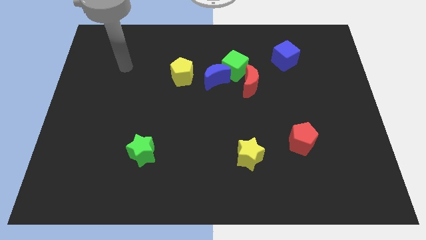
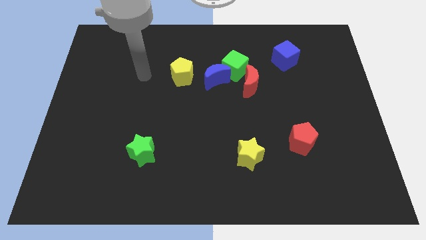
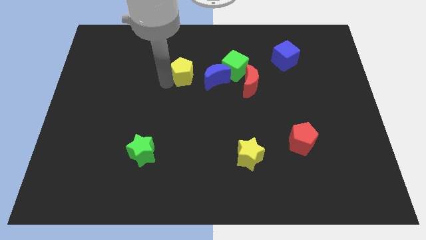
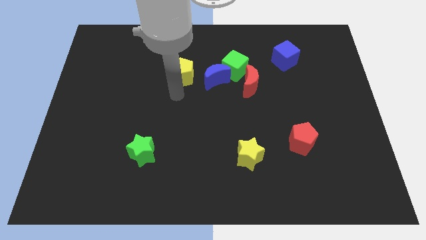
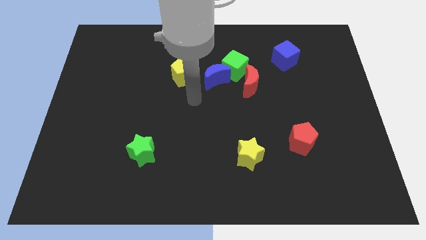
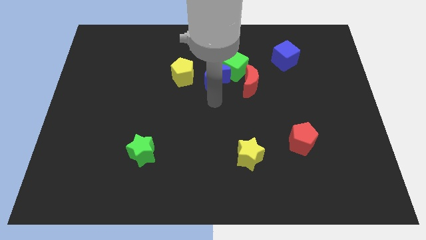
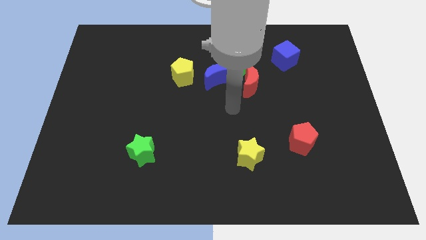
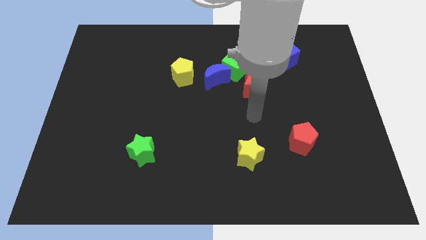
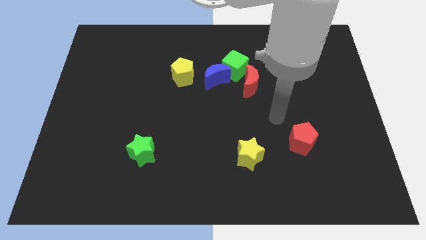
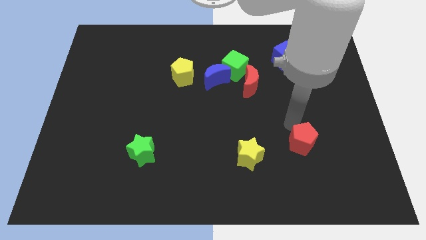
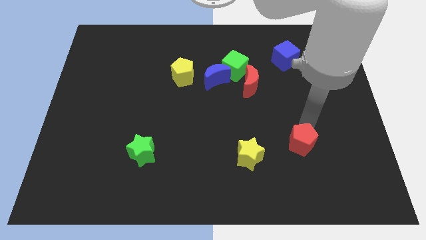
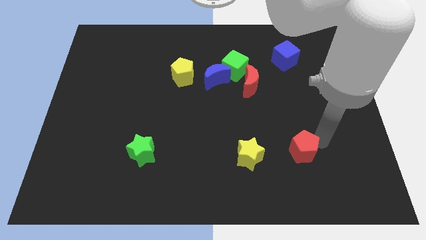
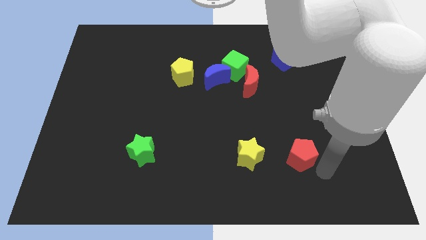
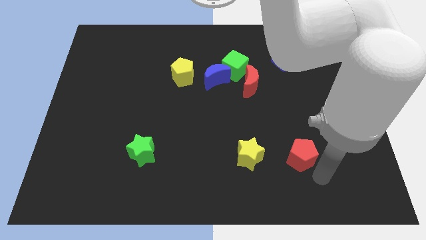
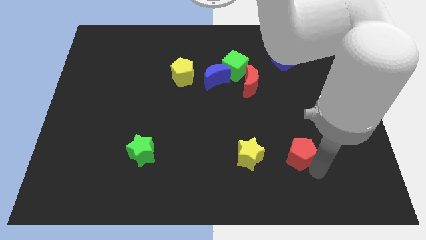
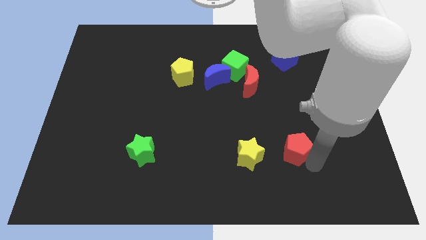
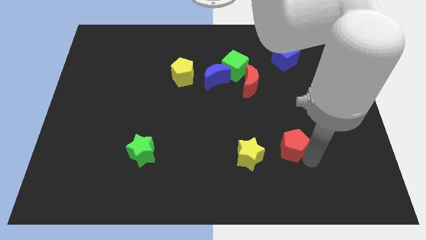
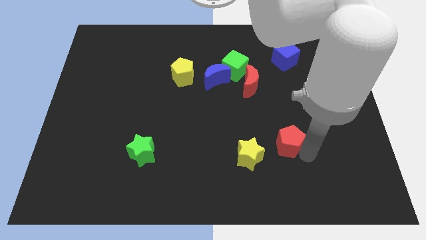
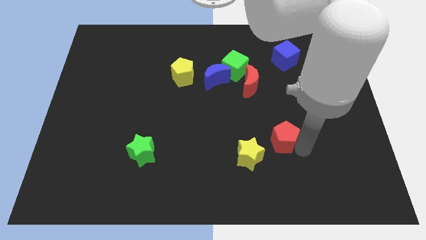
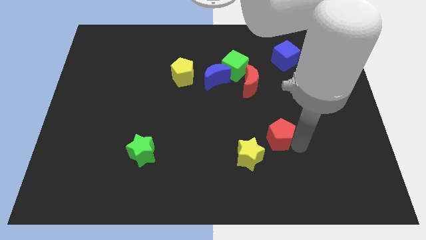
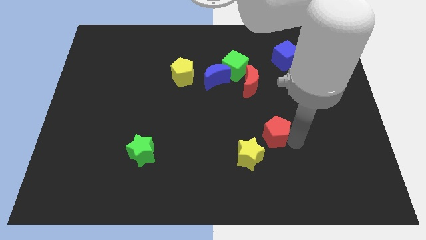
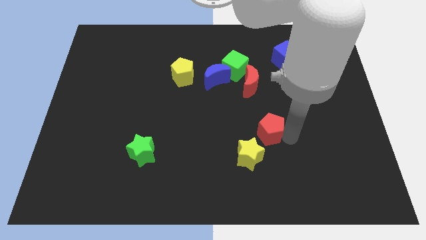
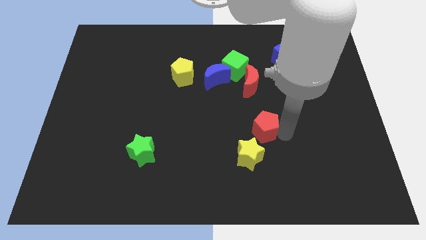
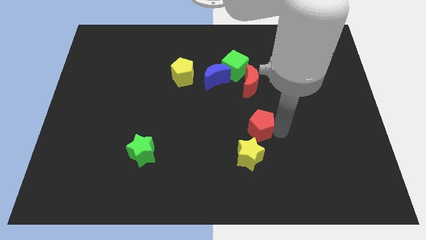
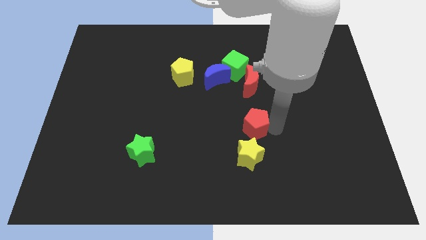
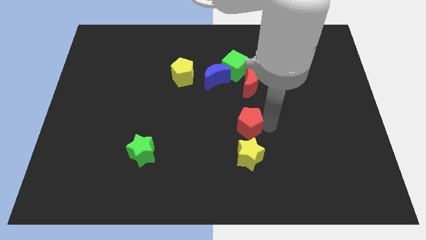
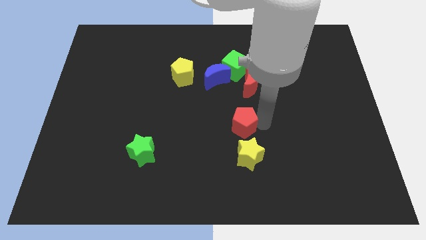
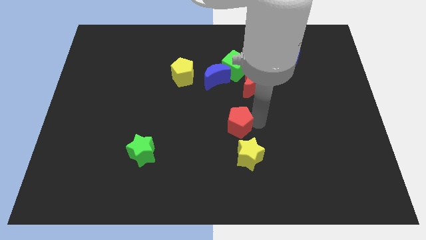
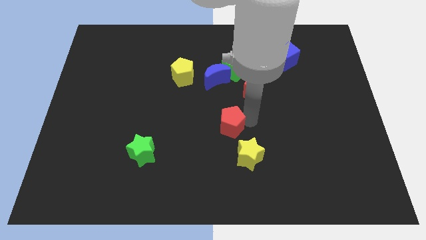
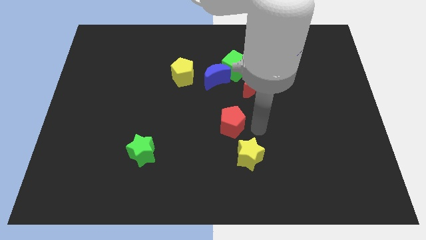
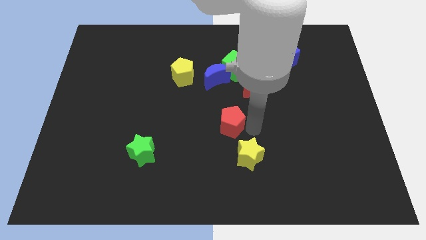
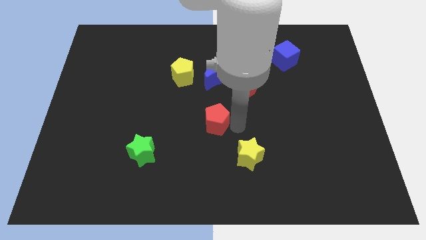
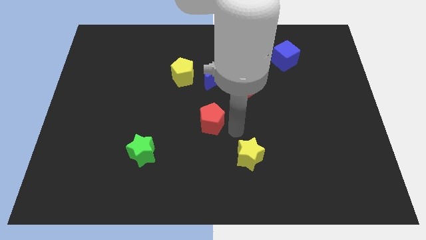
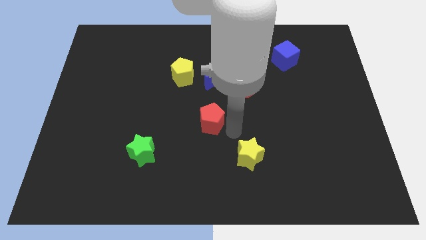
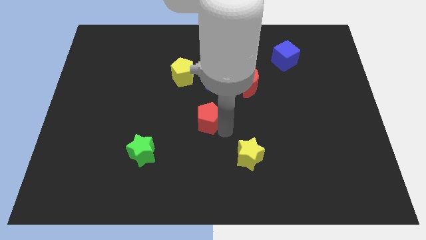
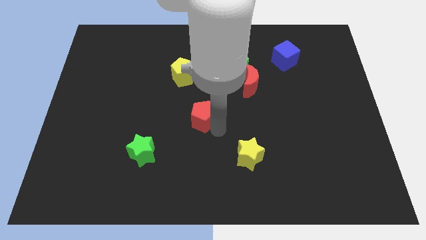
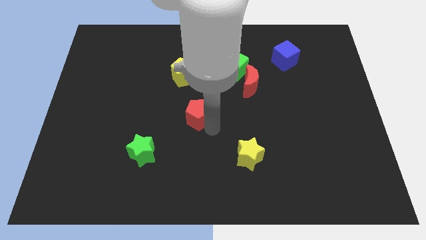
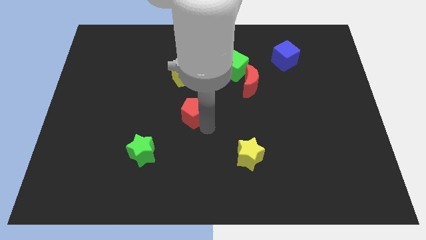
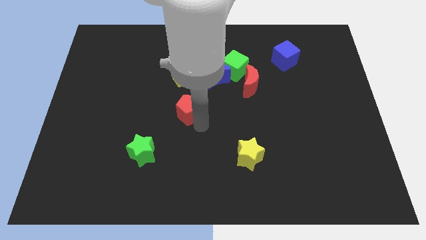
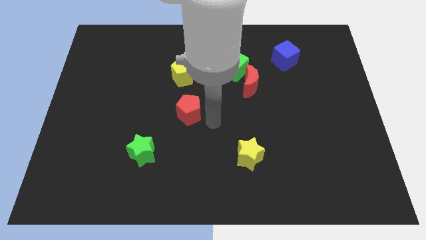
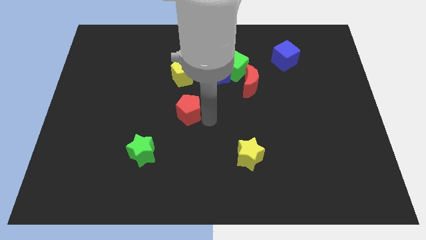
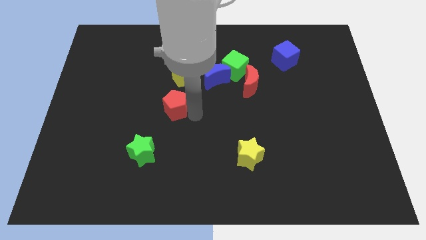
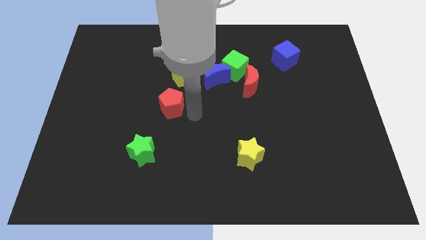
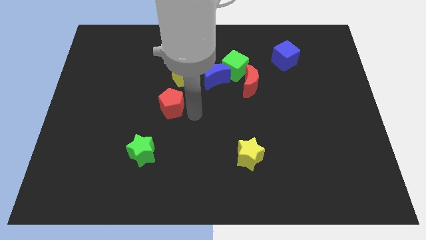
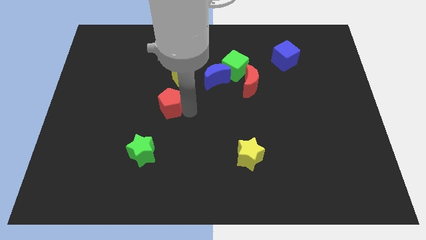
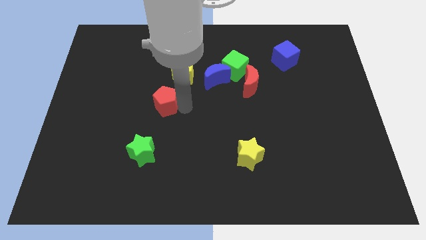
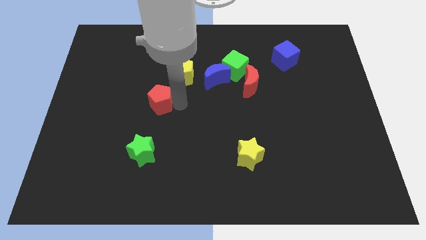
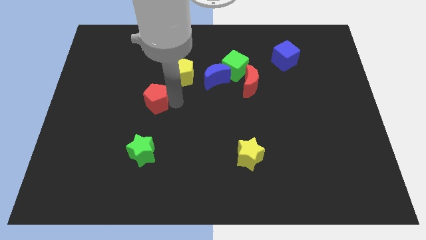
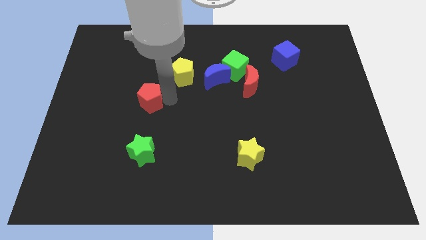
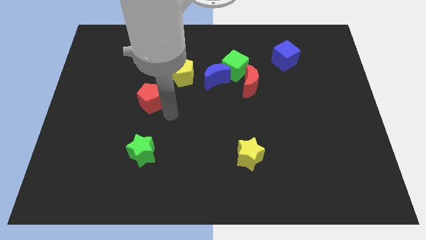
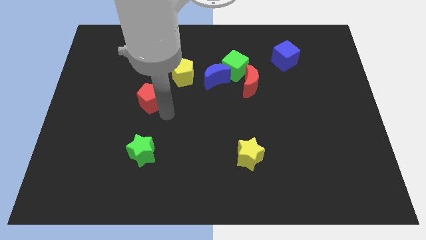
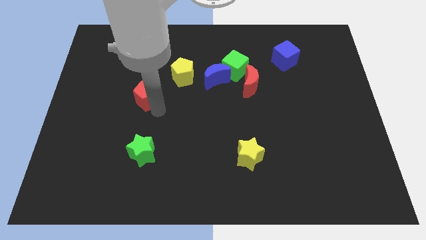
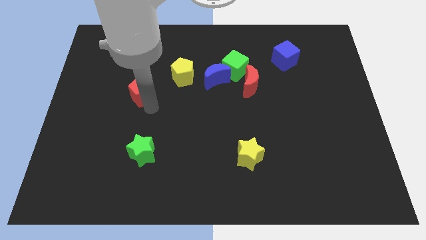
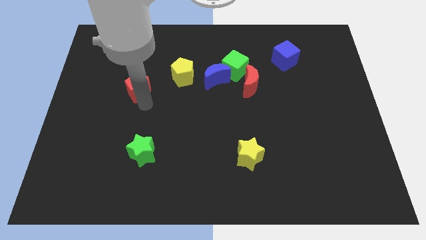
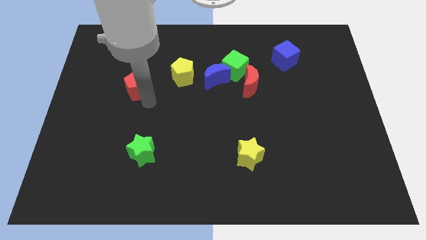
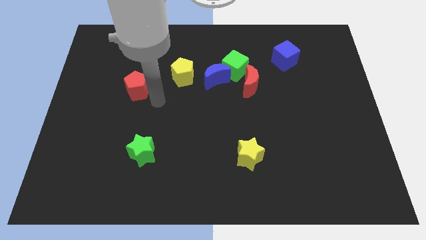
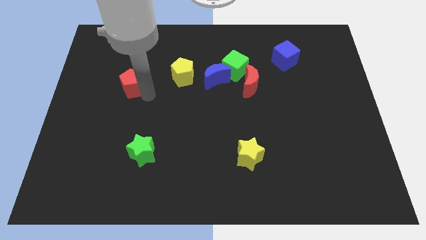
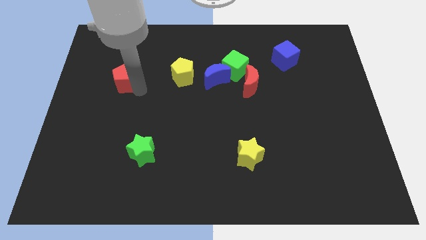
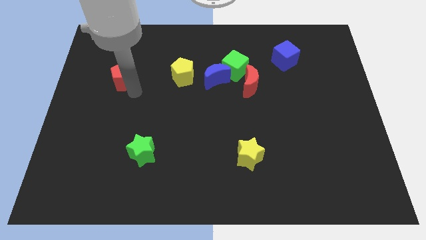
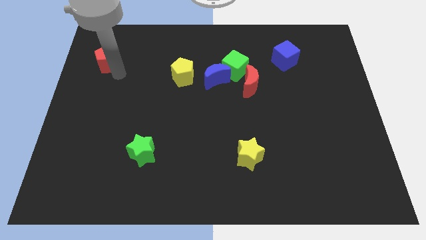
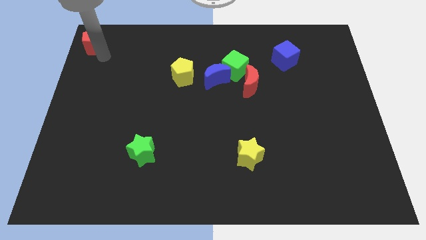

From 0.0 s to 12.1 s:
push the red pentagon to the upper left corner
